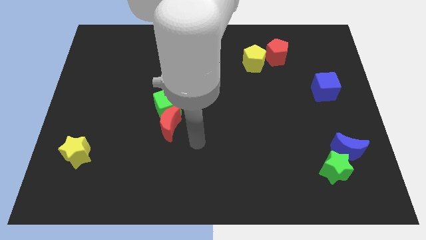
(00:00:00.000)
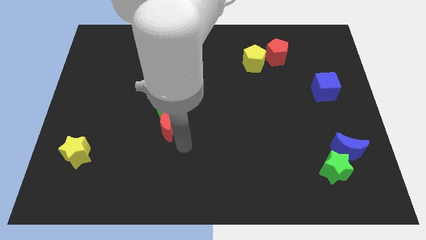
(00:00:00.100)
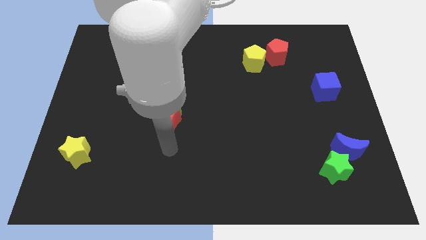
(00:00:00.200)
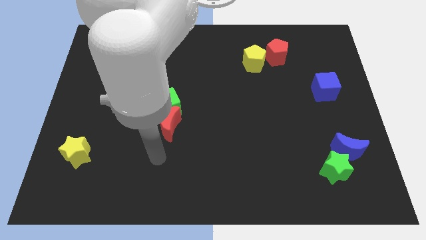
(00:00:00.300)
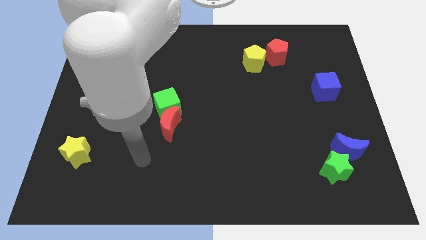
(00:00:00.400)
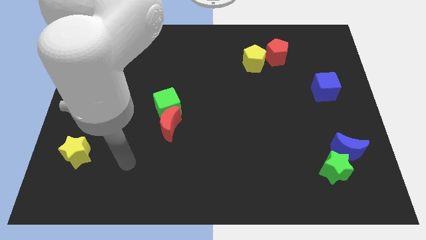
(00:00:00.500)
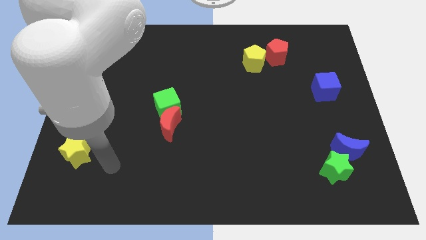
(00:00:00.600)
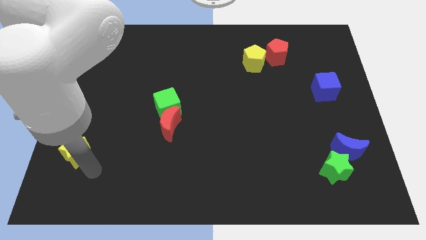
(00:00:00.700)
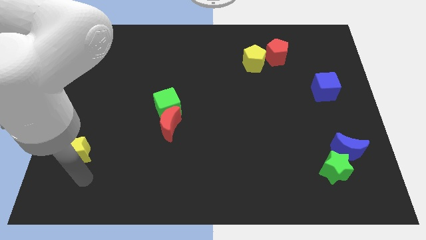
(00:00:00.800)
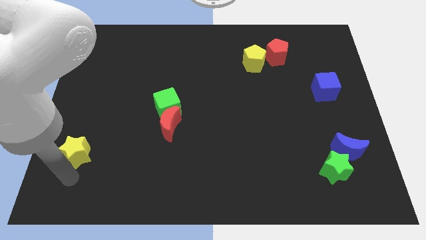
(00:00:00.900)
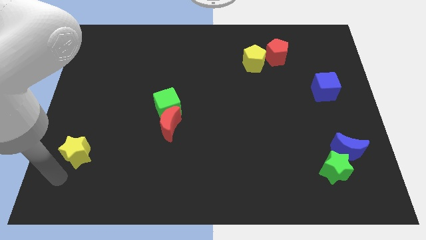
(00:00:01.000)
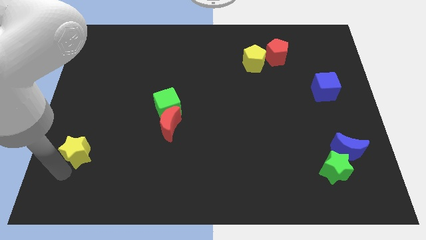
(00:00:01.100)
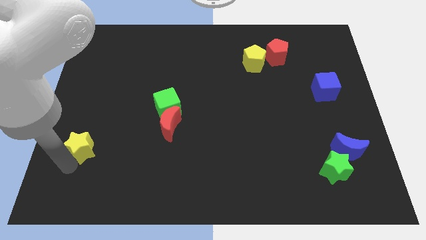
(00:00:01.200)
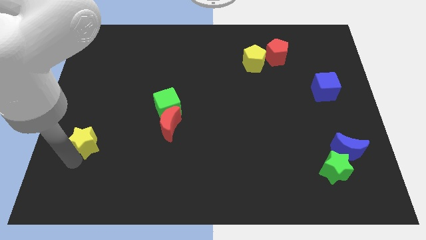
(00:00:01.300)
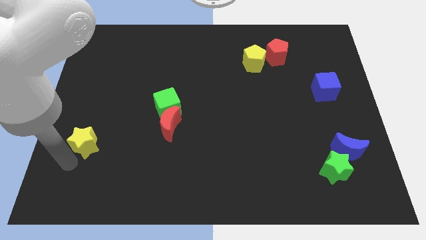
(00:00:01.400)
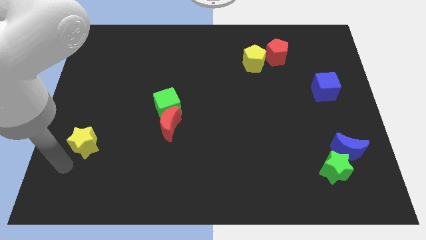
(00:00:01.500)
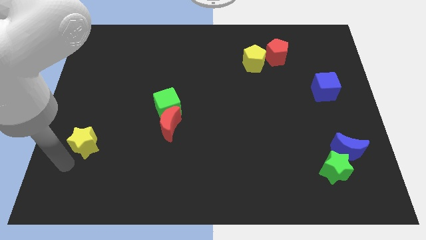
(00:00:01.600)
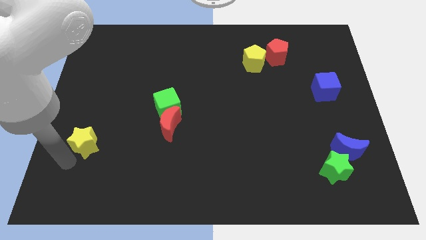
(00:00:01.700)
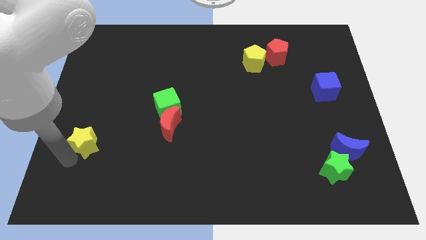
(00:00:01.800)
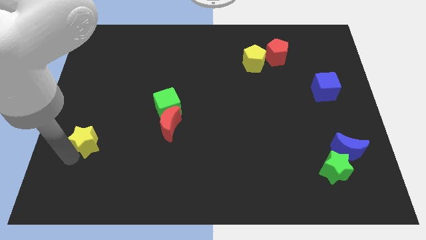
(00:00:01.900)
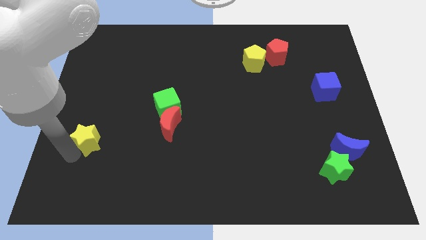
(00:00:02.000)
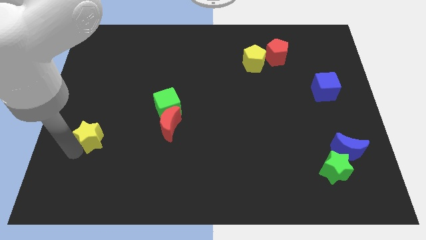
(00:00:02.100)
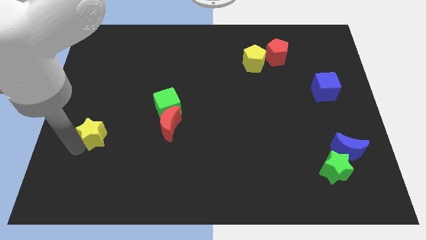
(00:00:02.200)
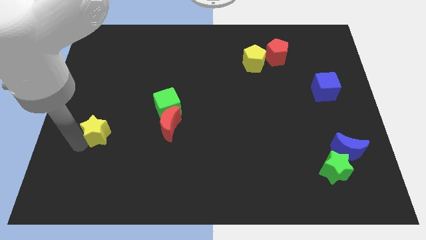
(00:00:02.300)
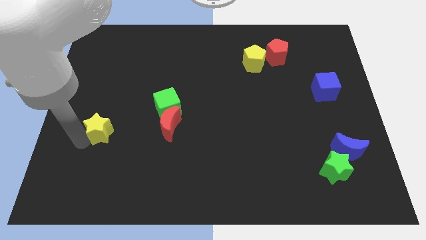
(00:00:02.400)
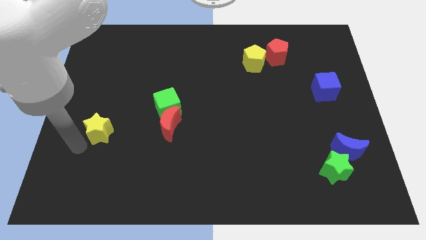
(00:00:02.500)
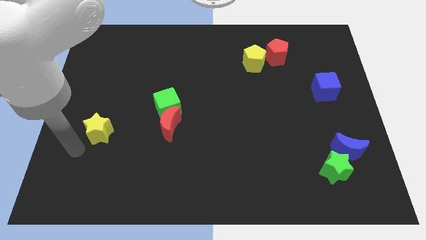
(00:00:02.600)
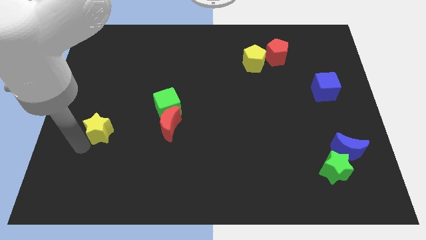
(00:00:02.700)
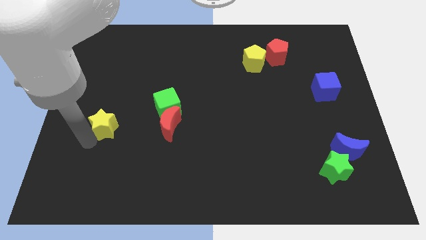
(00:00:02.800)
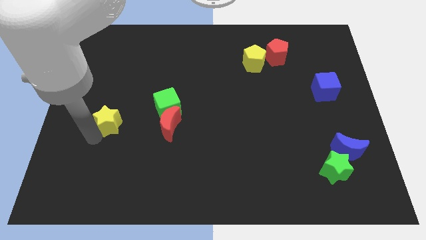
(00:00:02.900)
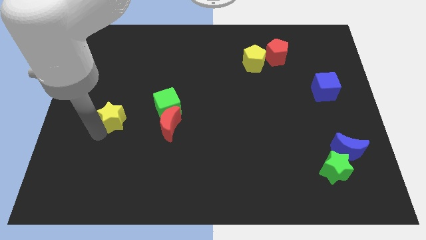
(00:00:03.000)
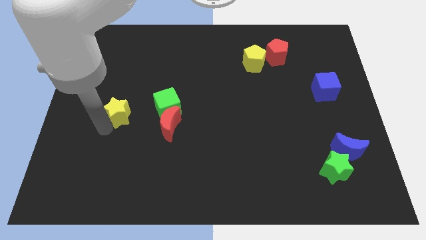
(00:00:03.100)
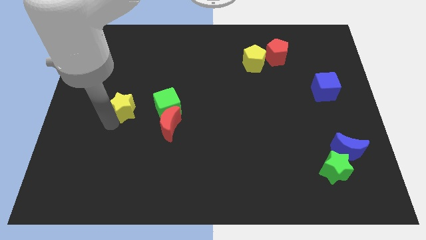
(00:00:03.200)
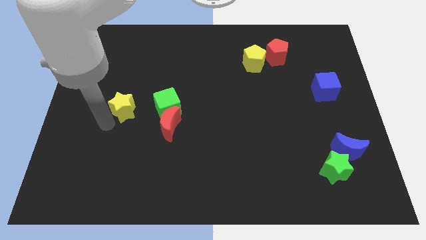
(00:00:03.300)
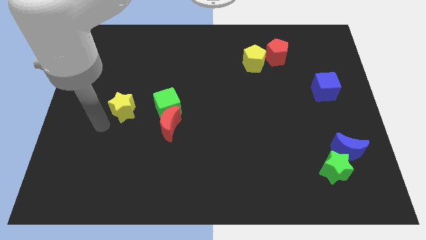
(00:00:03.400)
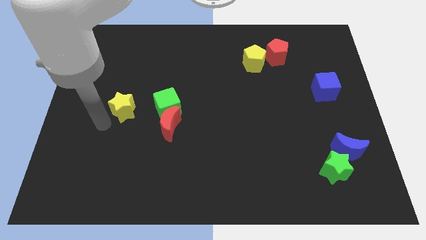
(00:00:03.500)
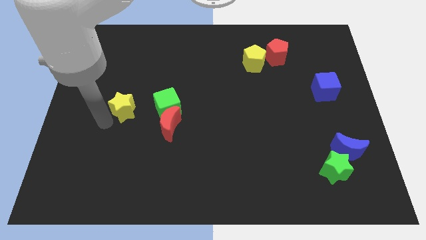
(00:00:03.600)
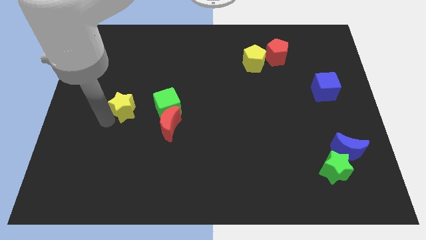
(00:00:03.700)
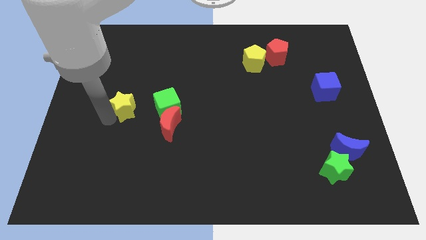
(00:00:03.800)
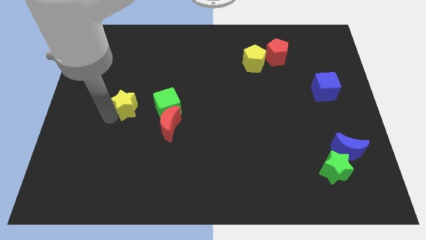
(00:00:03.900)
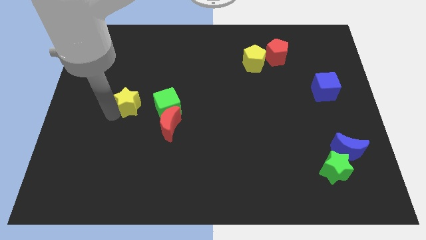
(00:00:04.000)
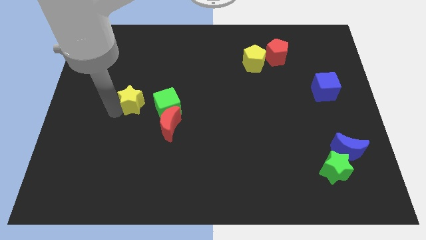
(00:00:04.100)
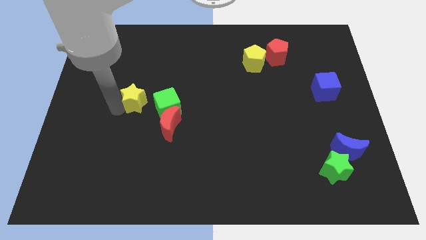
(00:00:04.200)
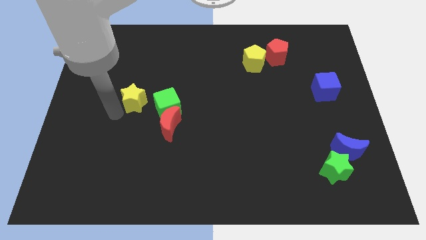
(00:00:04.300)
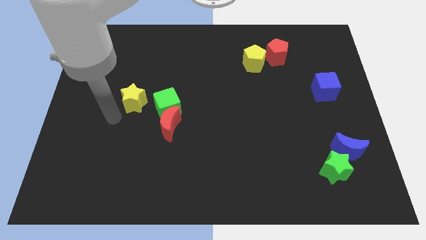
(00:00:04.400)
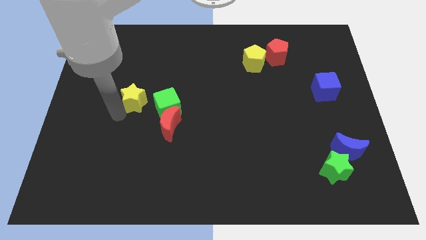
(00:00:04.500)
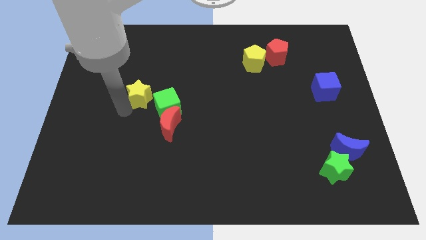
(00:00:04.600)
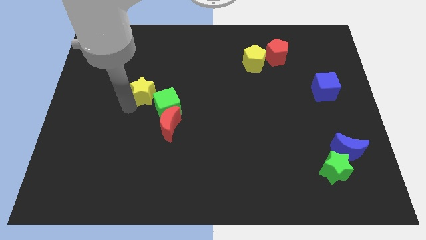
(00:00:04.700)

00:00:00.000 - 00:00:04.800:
slide the yellow star upwards and to the right diagonally

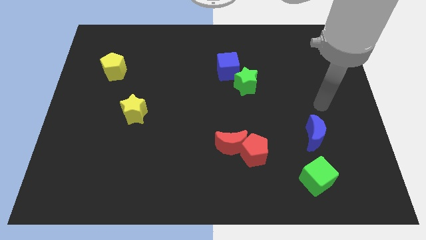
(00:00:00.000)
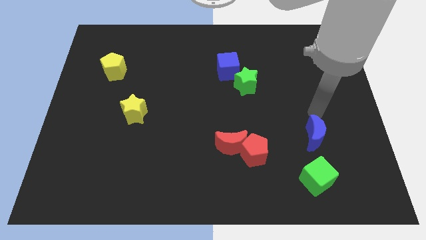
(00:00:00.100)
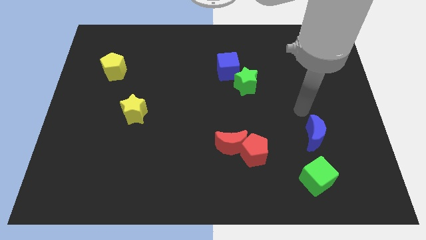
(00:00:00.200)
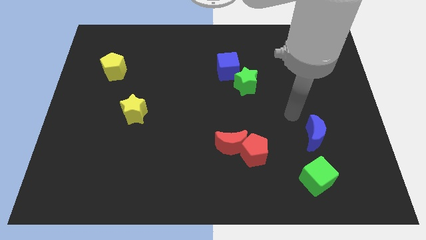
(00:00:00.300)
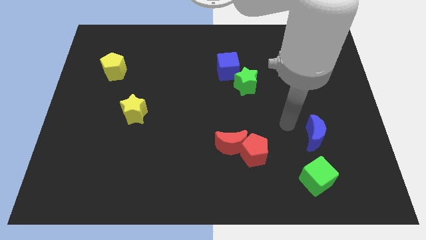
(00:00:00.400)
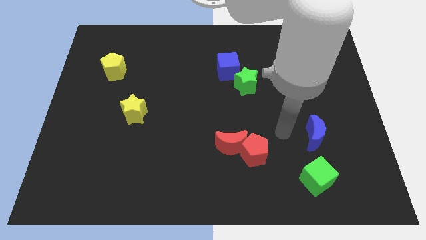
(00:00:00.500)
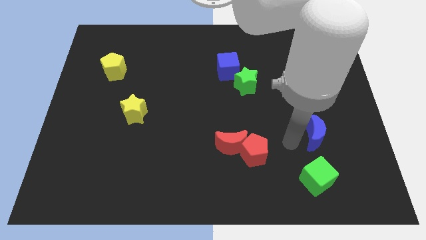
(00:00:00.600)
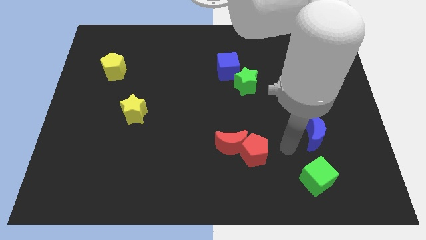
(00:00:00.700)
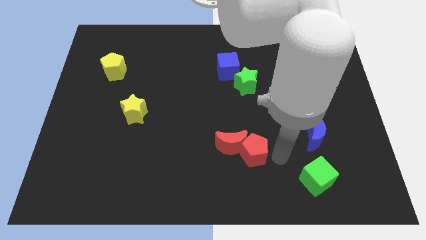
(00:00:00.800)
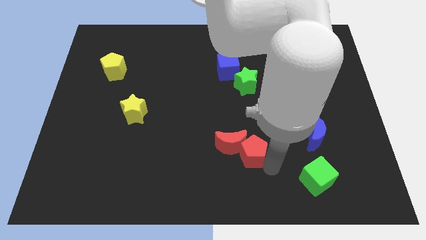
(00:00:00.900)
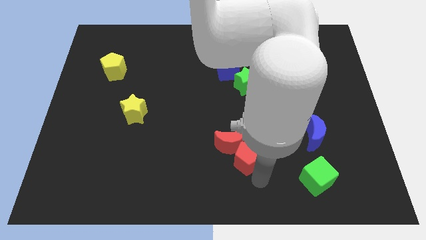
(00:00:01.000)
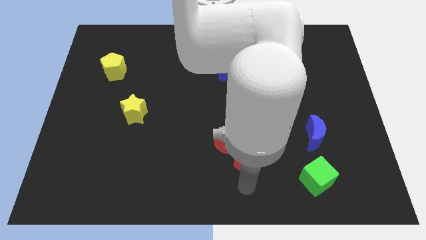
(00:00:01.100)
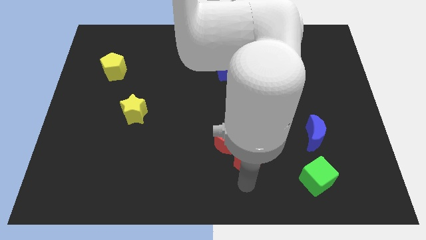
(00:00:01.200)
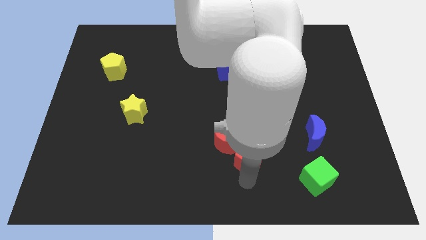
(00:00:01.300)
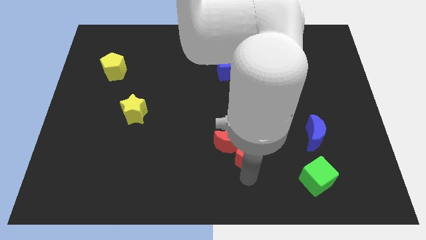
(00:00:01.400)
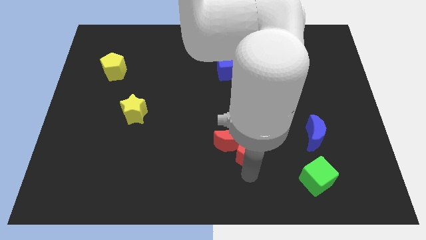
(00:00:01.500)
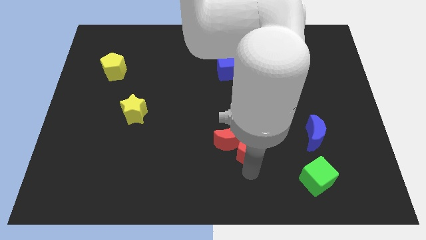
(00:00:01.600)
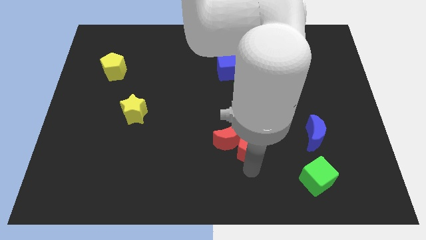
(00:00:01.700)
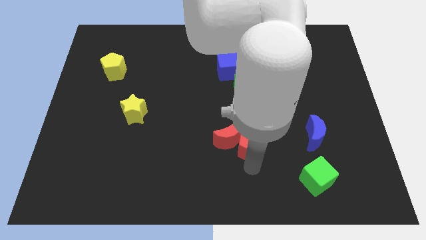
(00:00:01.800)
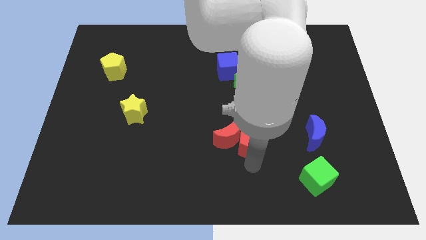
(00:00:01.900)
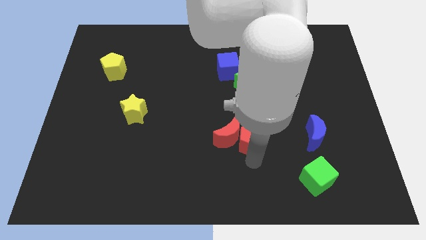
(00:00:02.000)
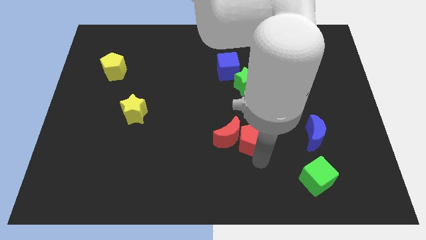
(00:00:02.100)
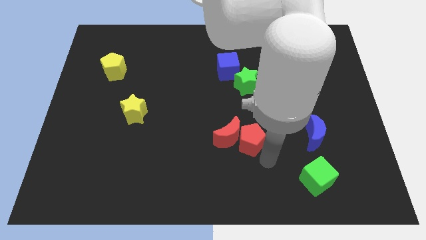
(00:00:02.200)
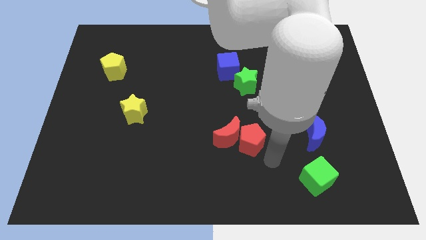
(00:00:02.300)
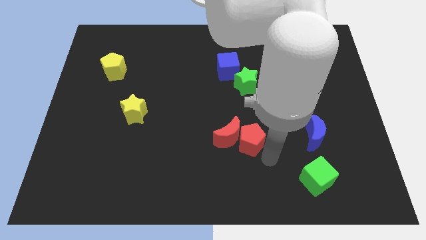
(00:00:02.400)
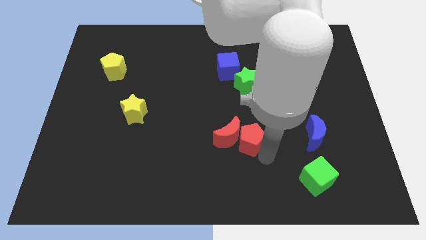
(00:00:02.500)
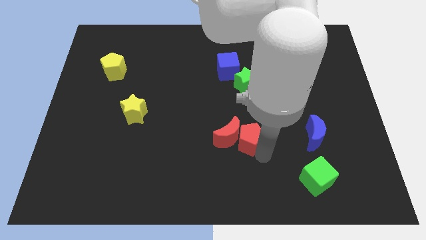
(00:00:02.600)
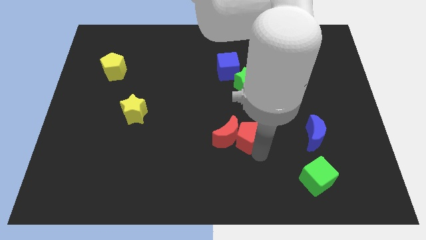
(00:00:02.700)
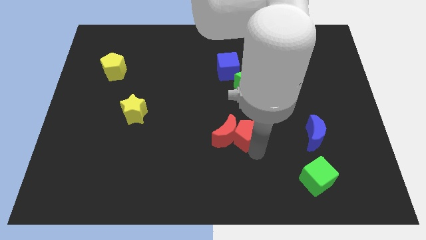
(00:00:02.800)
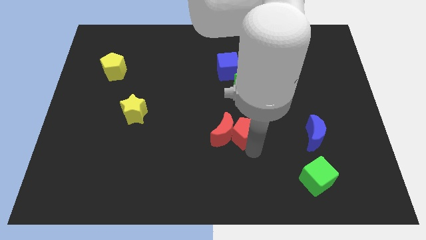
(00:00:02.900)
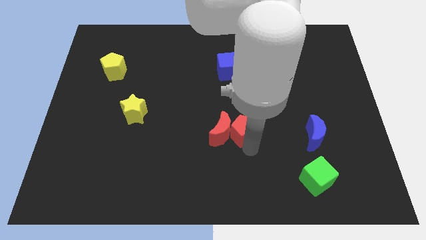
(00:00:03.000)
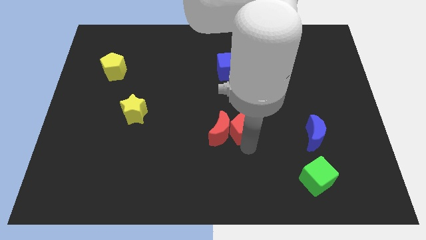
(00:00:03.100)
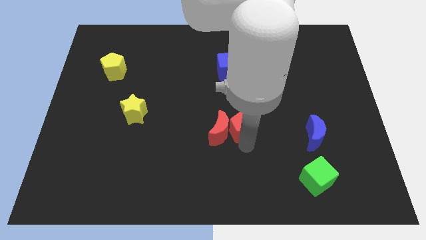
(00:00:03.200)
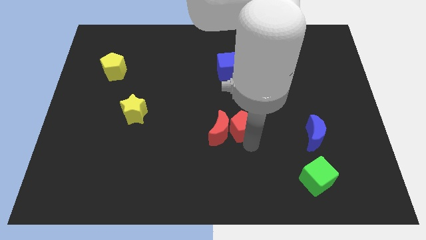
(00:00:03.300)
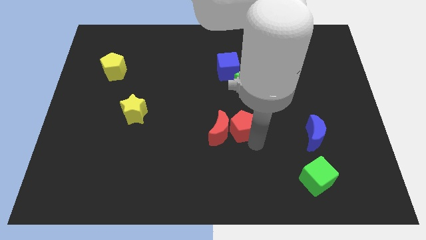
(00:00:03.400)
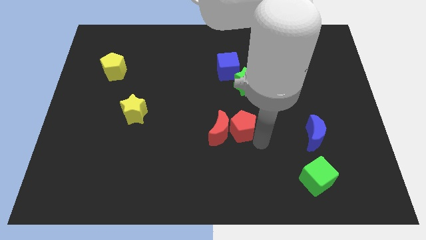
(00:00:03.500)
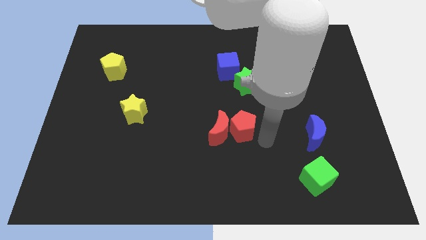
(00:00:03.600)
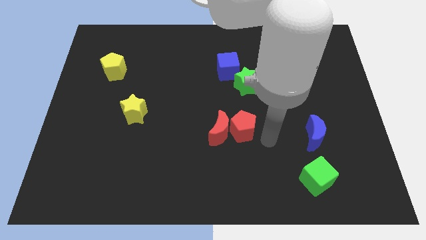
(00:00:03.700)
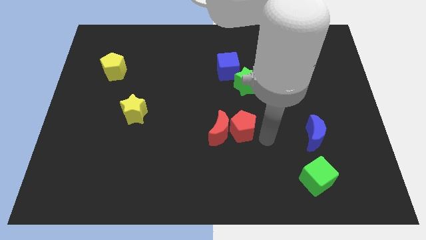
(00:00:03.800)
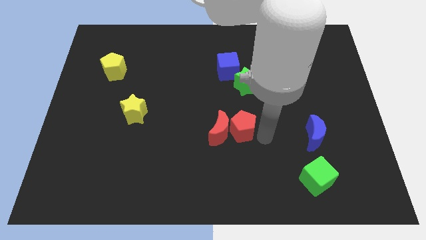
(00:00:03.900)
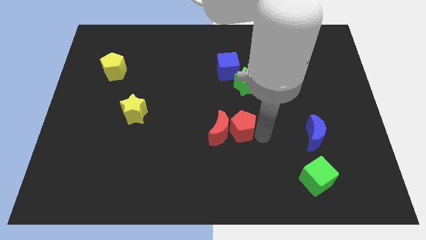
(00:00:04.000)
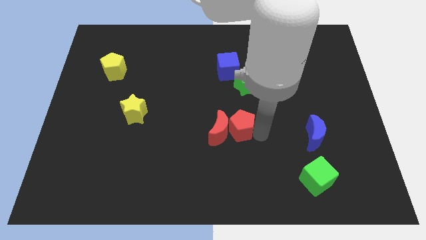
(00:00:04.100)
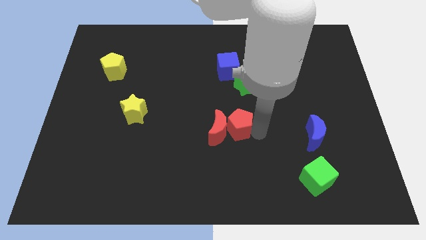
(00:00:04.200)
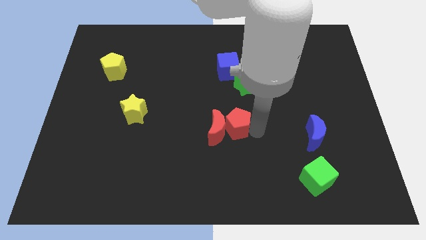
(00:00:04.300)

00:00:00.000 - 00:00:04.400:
push the red pentagon somewhat up and then left
